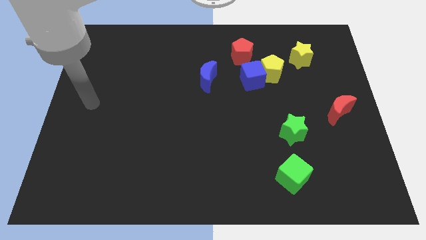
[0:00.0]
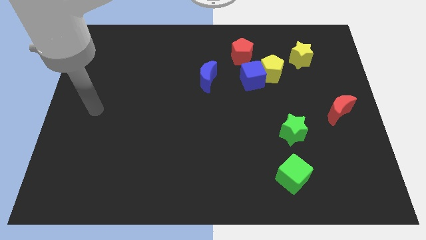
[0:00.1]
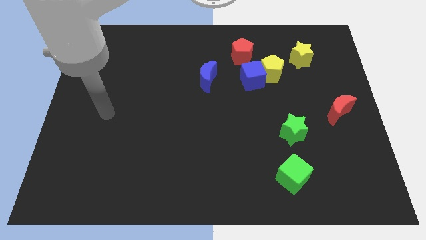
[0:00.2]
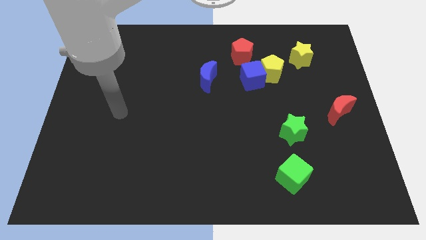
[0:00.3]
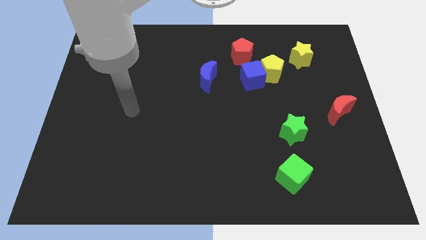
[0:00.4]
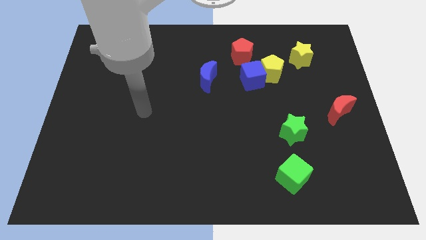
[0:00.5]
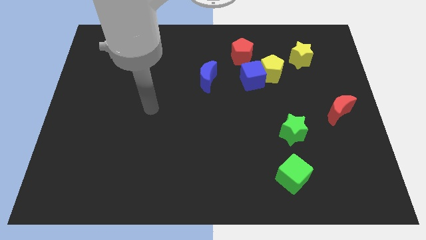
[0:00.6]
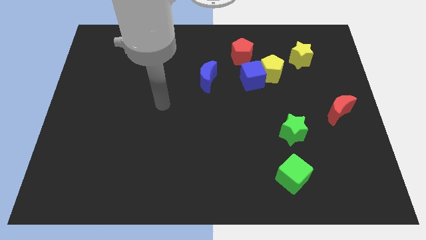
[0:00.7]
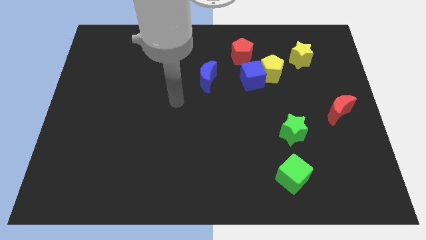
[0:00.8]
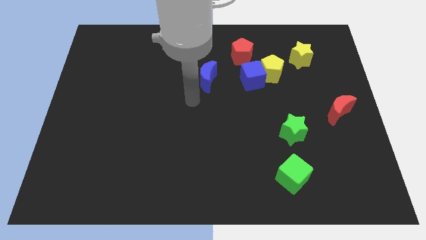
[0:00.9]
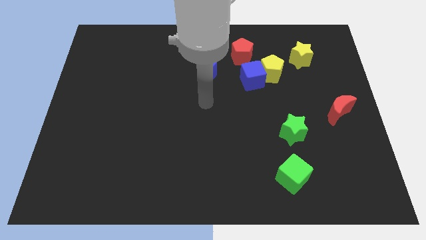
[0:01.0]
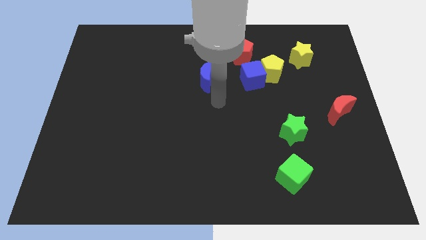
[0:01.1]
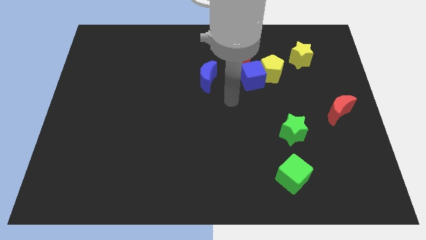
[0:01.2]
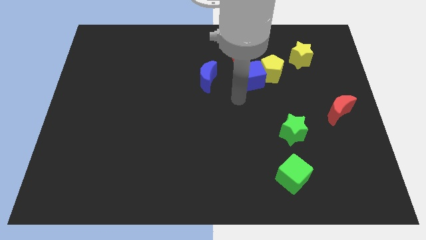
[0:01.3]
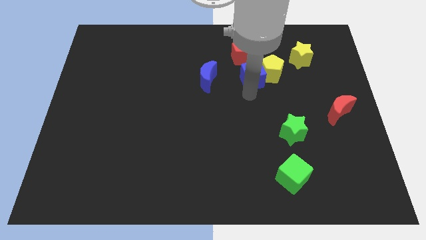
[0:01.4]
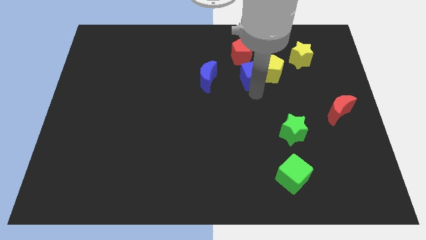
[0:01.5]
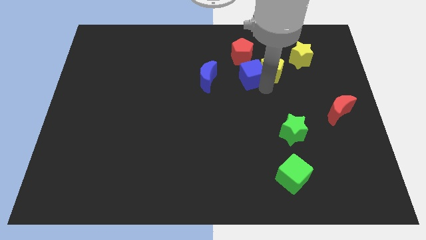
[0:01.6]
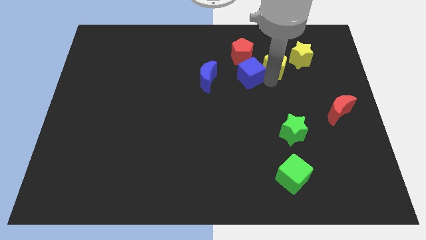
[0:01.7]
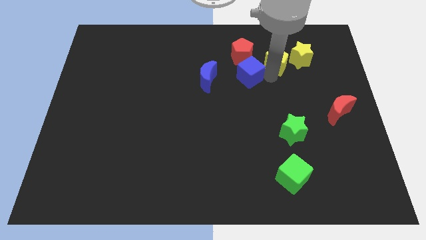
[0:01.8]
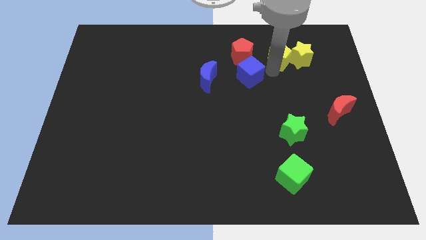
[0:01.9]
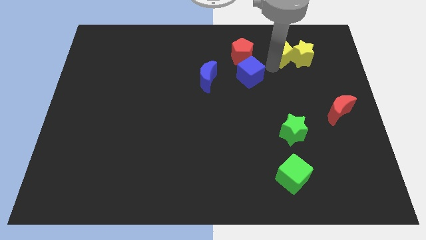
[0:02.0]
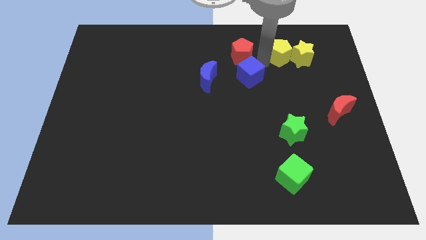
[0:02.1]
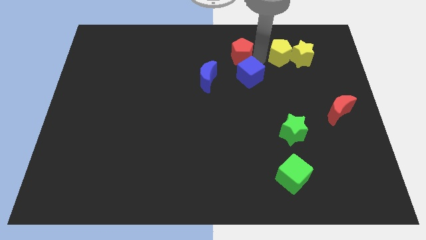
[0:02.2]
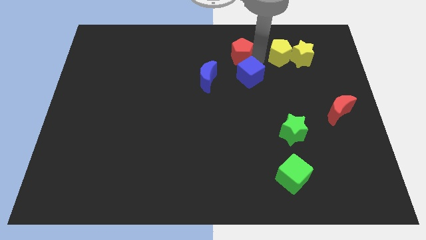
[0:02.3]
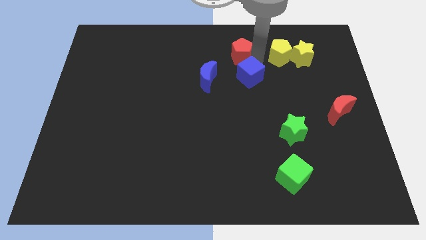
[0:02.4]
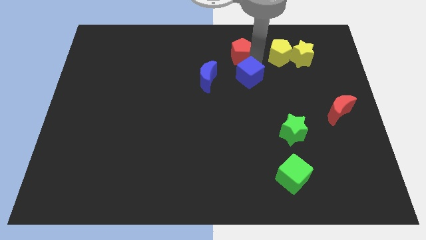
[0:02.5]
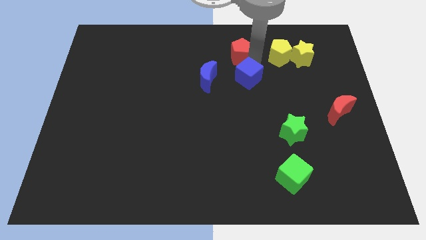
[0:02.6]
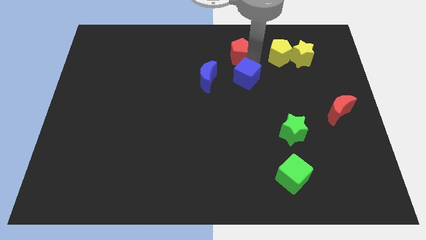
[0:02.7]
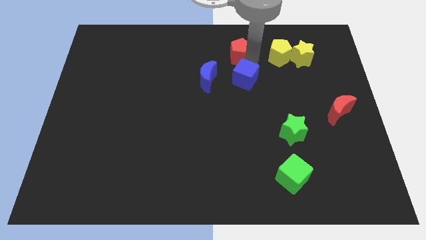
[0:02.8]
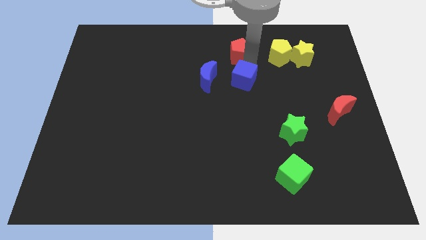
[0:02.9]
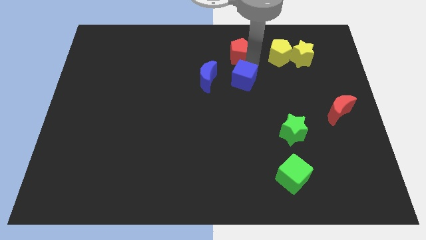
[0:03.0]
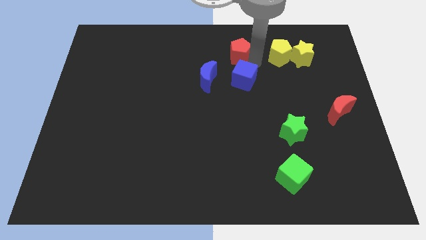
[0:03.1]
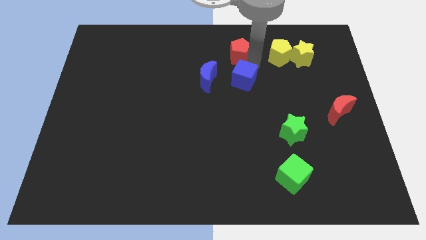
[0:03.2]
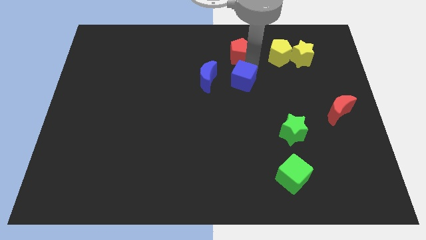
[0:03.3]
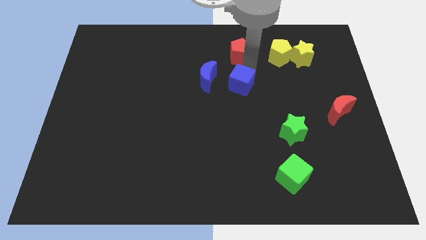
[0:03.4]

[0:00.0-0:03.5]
move the blue cube away from the yellow pentagon and red pentagon

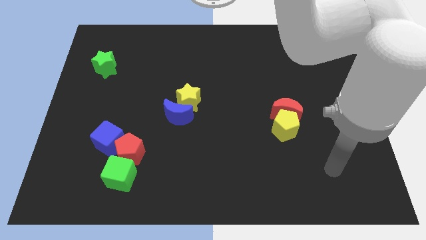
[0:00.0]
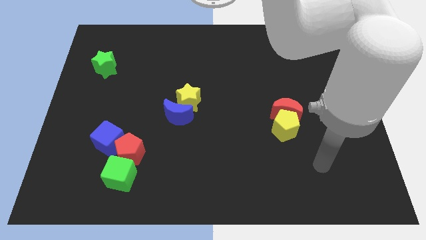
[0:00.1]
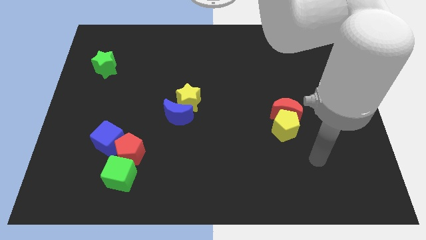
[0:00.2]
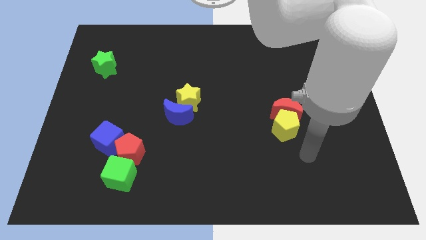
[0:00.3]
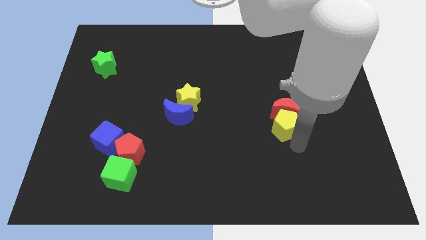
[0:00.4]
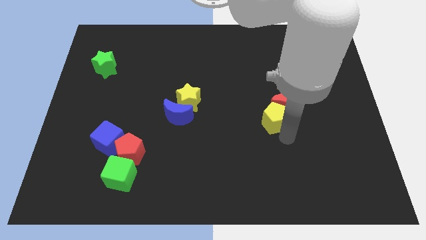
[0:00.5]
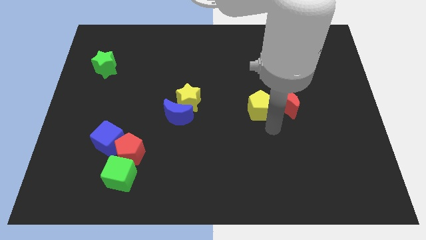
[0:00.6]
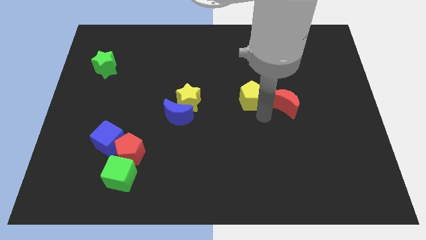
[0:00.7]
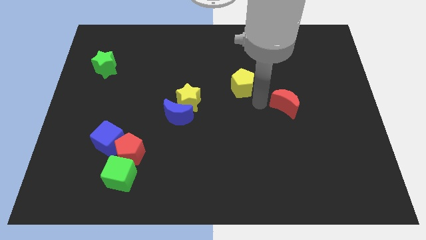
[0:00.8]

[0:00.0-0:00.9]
pull the red moon apart from the yellow pentagon

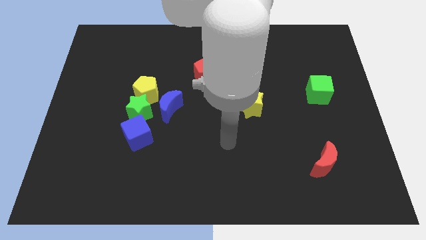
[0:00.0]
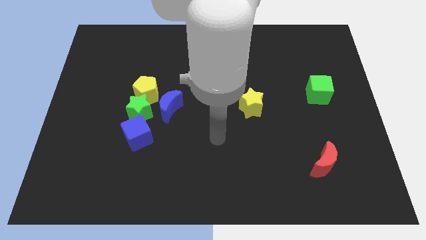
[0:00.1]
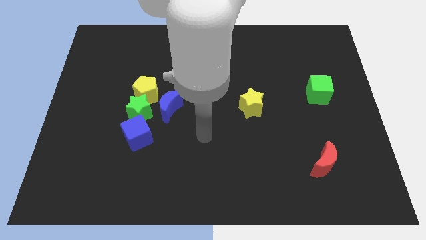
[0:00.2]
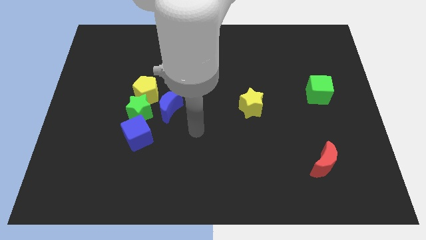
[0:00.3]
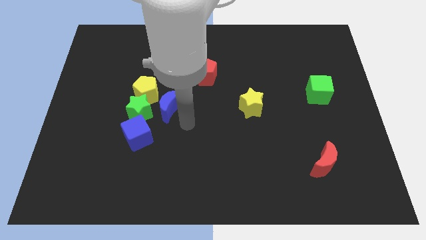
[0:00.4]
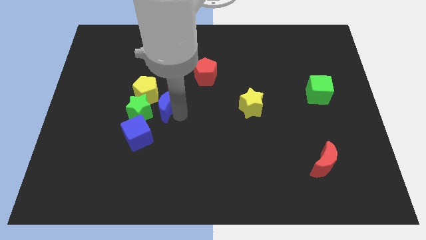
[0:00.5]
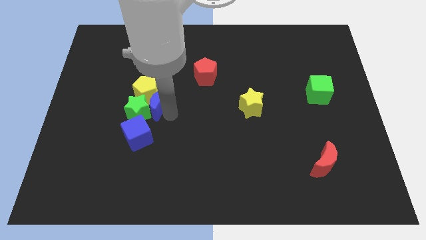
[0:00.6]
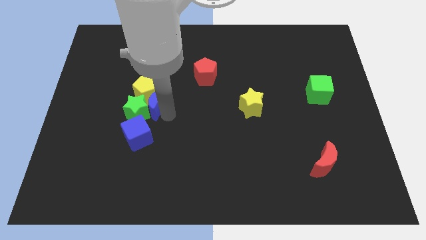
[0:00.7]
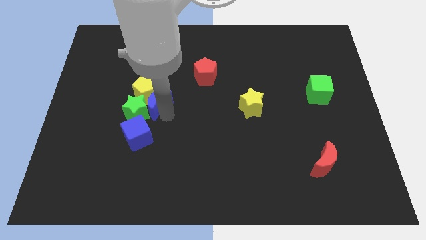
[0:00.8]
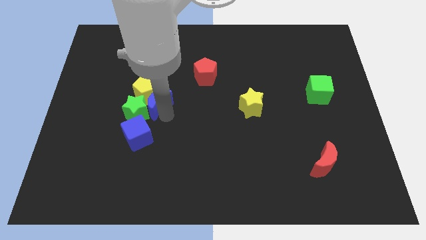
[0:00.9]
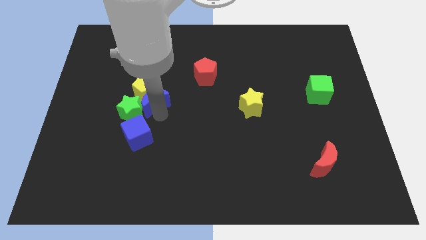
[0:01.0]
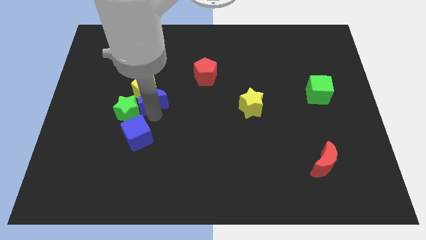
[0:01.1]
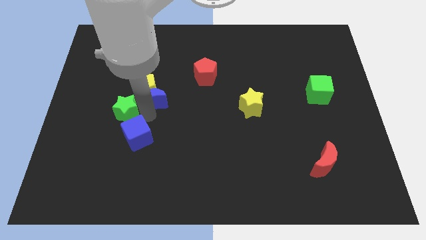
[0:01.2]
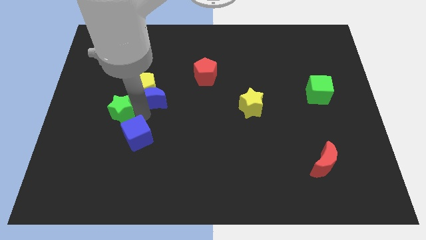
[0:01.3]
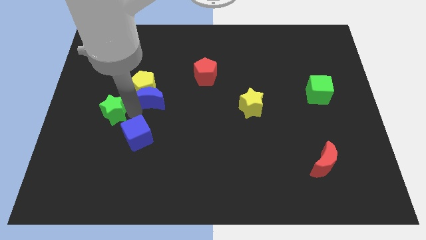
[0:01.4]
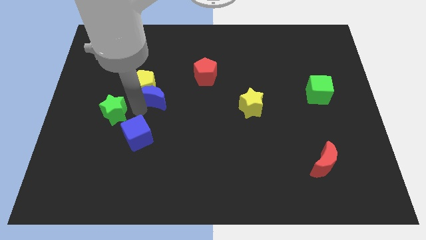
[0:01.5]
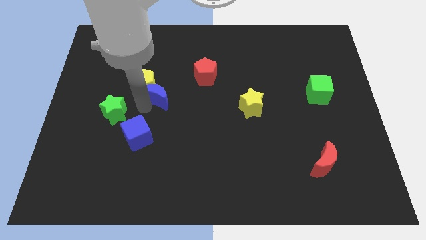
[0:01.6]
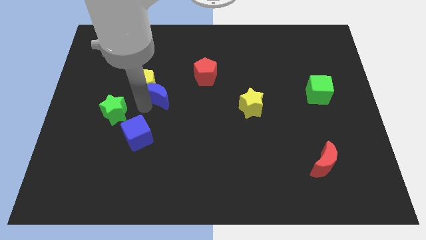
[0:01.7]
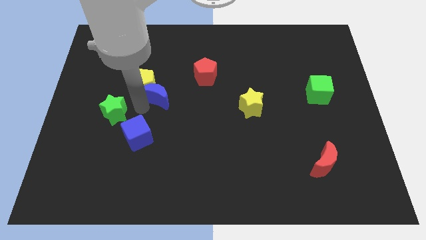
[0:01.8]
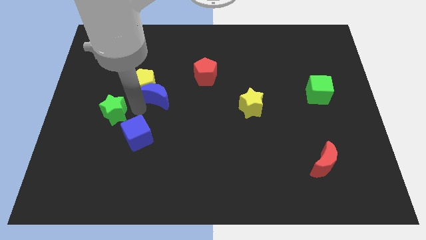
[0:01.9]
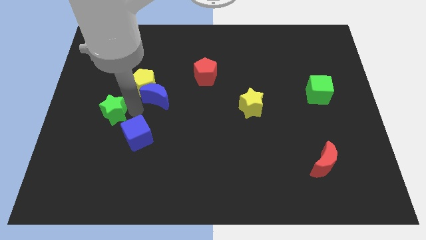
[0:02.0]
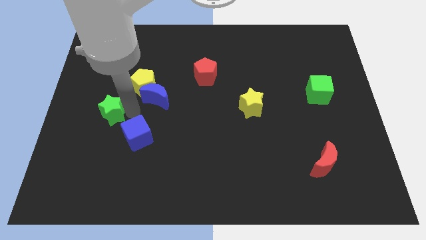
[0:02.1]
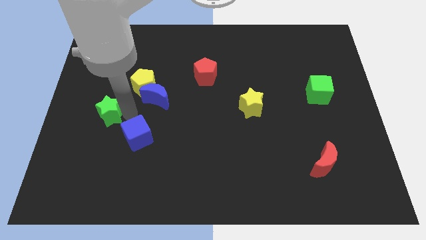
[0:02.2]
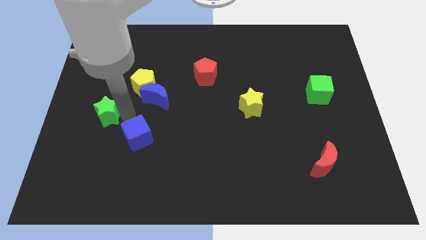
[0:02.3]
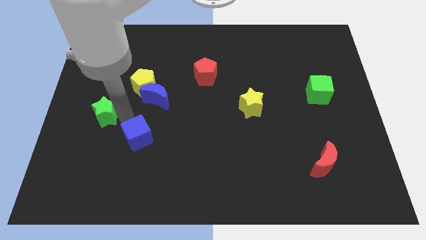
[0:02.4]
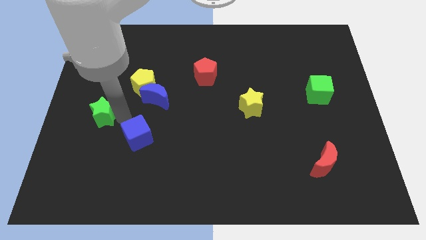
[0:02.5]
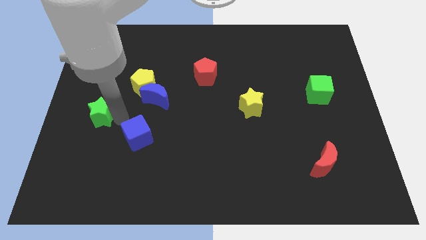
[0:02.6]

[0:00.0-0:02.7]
separate the green star from the yellow pentagon, blue cube, and blue moon

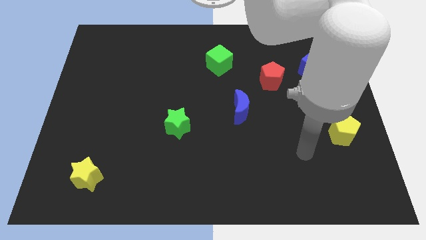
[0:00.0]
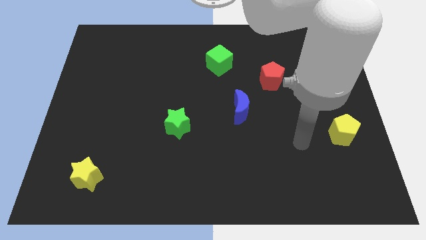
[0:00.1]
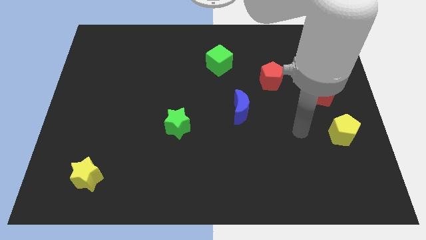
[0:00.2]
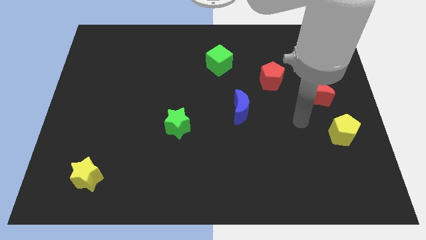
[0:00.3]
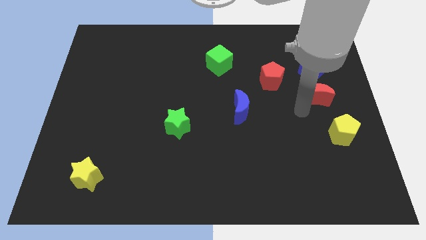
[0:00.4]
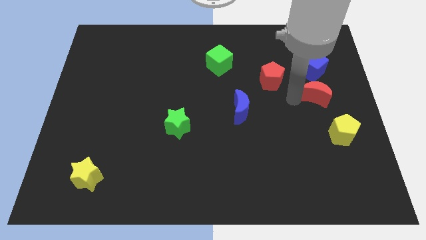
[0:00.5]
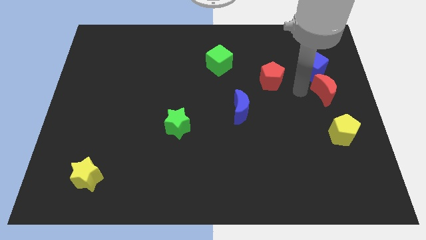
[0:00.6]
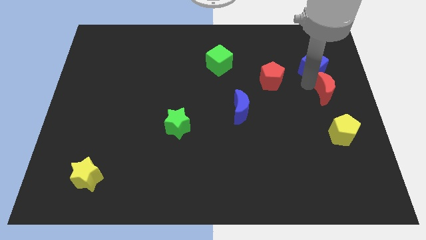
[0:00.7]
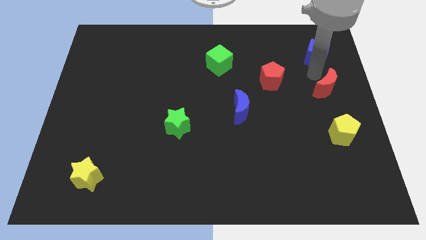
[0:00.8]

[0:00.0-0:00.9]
separate the red moon from the blue cube

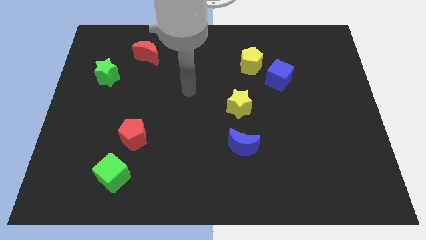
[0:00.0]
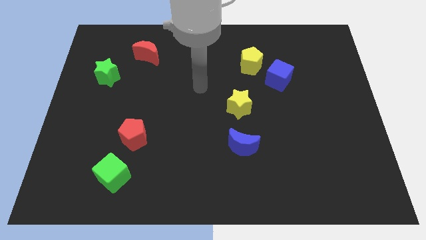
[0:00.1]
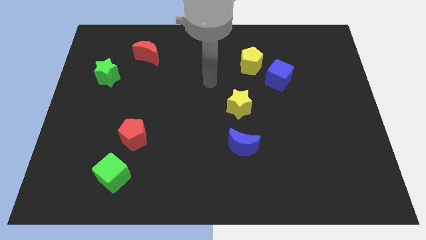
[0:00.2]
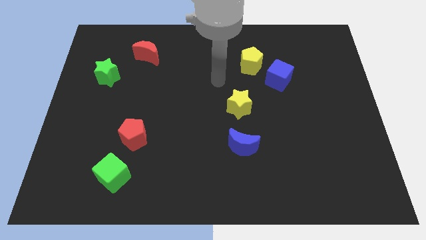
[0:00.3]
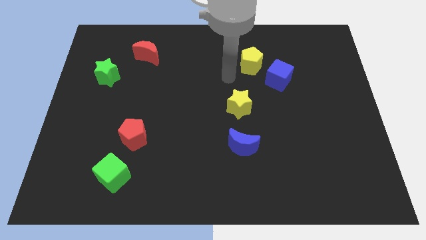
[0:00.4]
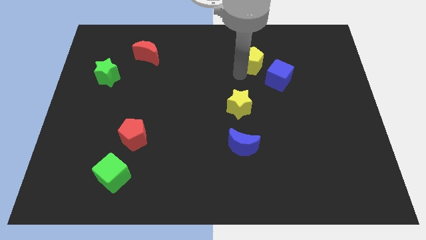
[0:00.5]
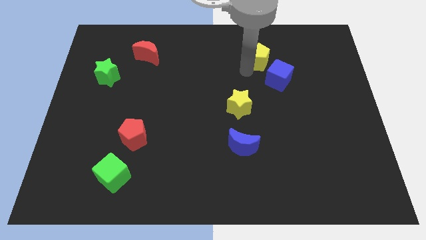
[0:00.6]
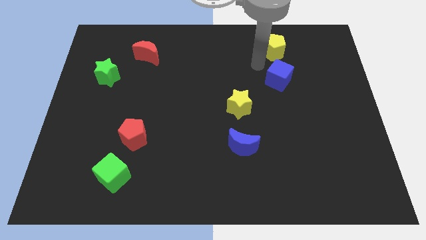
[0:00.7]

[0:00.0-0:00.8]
separate the blue cube from the yellow pentagon

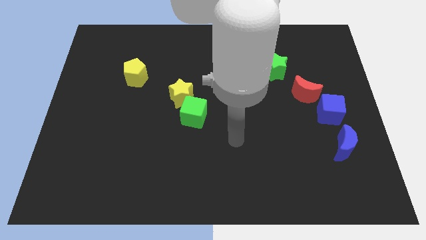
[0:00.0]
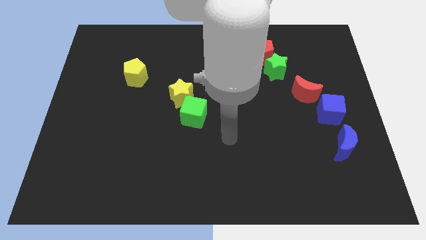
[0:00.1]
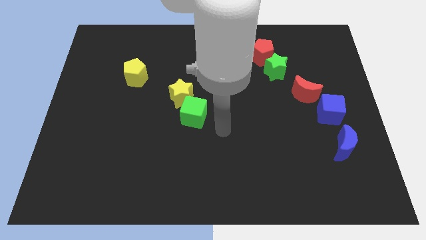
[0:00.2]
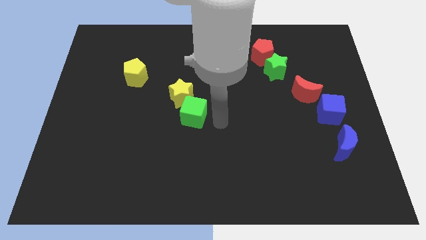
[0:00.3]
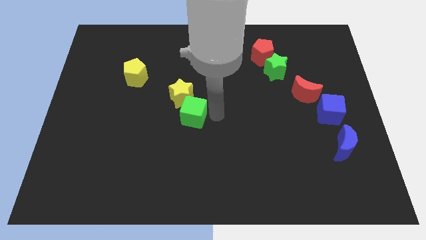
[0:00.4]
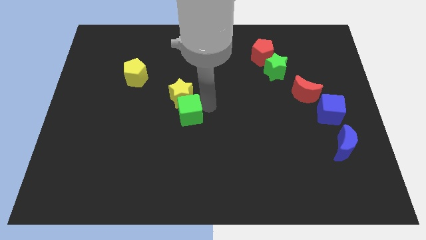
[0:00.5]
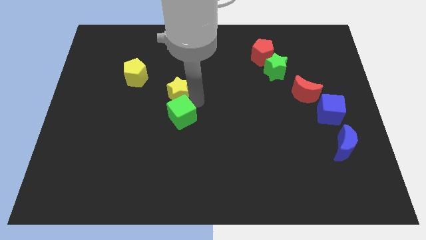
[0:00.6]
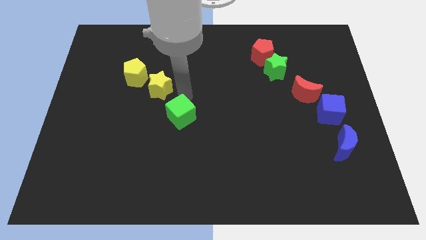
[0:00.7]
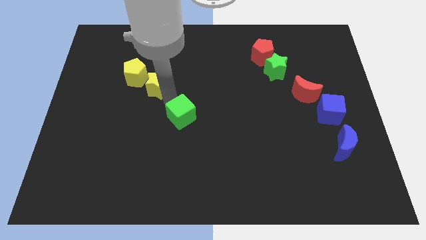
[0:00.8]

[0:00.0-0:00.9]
separate the green cube from the yellow star
